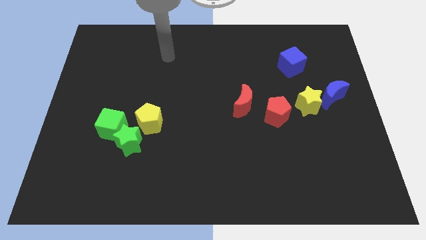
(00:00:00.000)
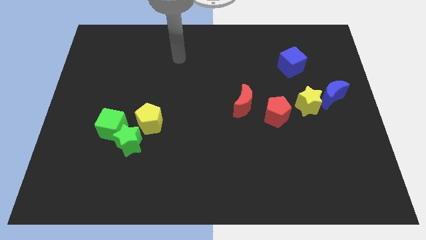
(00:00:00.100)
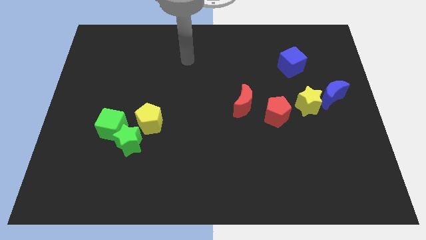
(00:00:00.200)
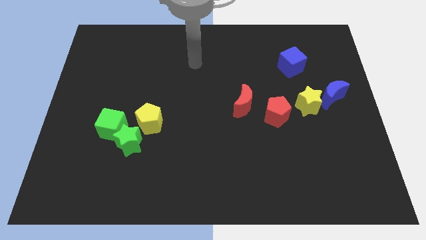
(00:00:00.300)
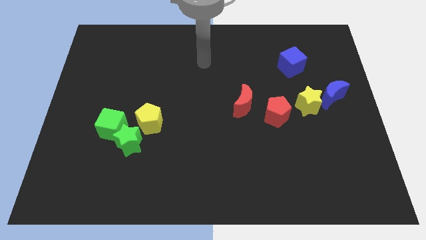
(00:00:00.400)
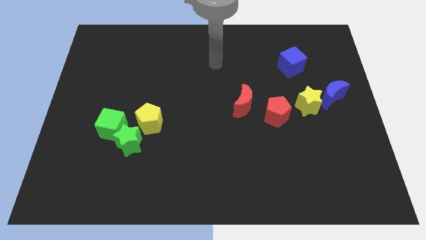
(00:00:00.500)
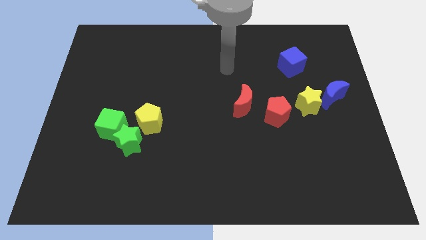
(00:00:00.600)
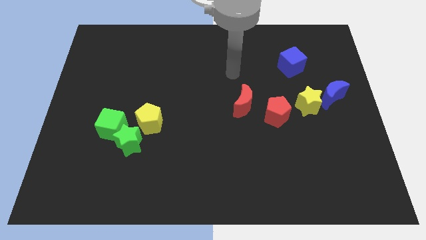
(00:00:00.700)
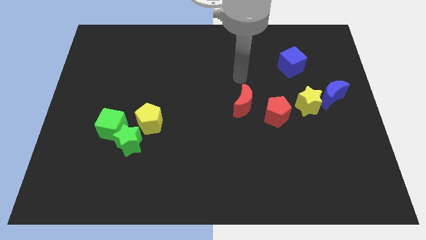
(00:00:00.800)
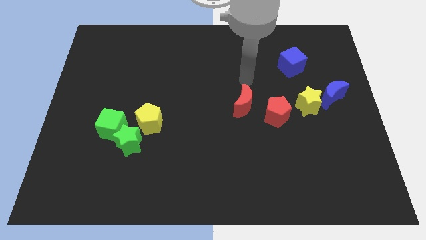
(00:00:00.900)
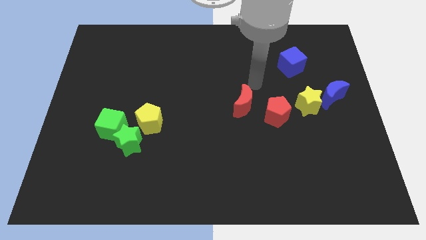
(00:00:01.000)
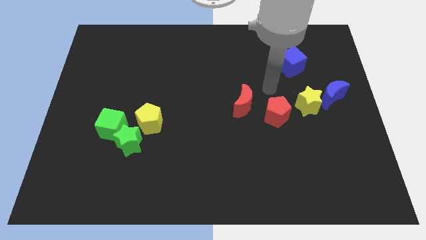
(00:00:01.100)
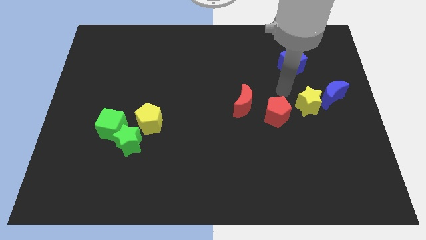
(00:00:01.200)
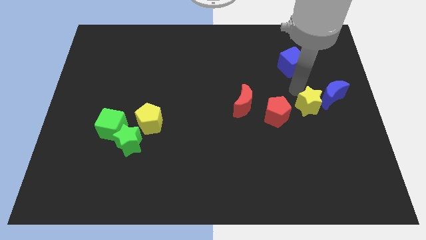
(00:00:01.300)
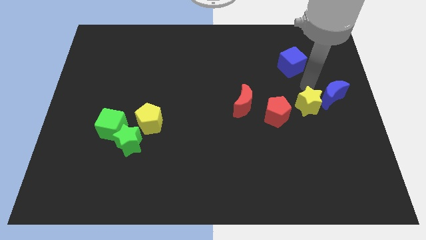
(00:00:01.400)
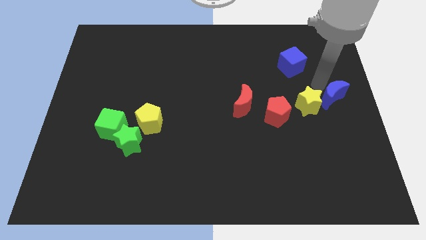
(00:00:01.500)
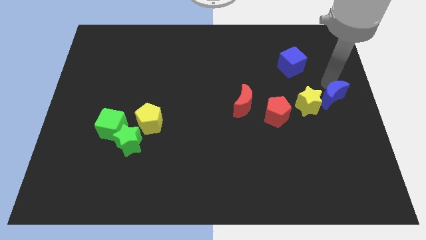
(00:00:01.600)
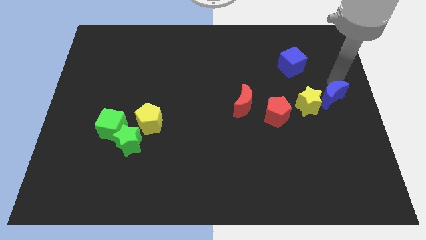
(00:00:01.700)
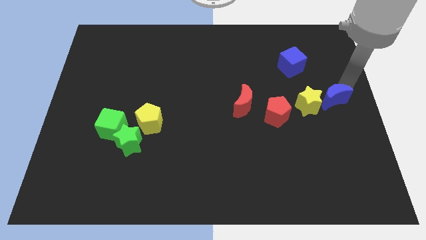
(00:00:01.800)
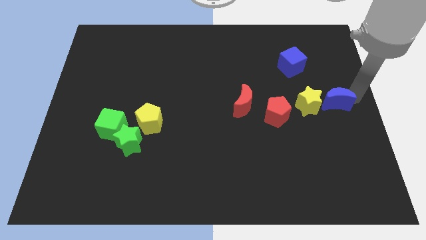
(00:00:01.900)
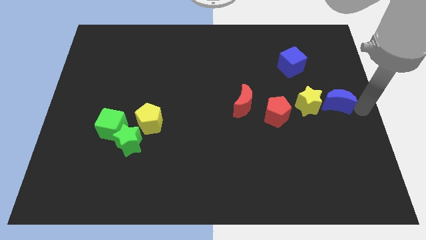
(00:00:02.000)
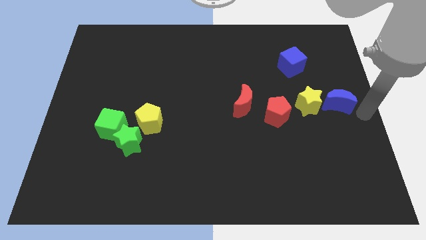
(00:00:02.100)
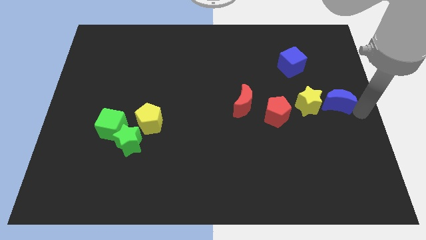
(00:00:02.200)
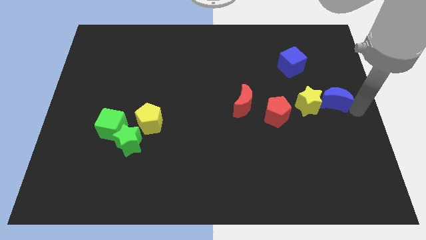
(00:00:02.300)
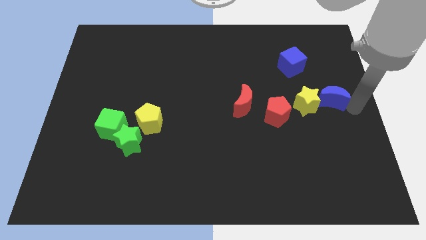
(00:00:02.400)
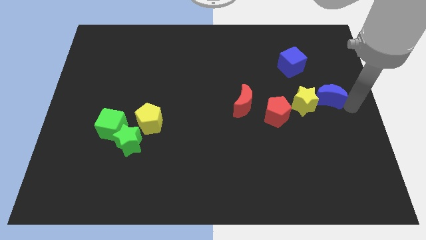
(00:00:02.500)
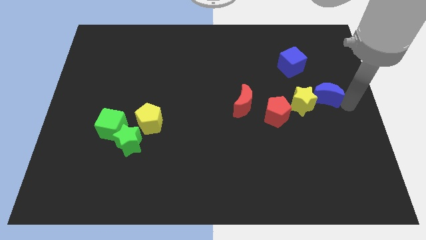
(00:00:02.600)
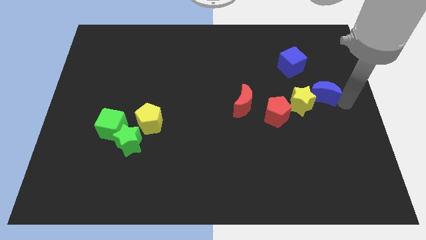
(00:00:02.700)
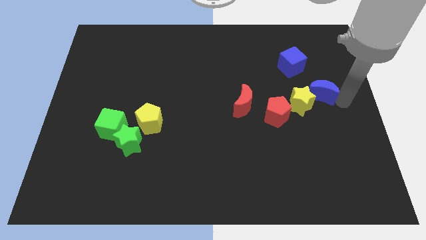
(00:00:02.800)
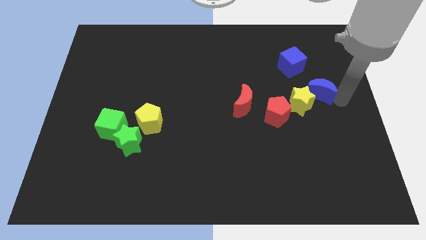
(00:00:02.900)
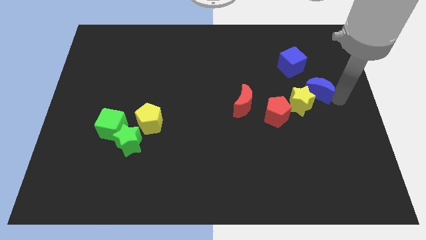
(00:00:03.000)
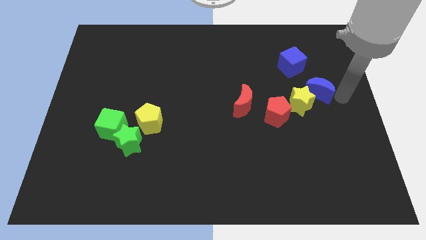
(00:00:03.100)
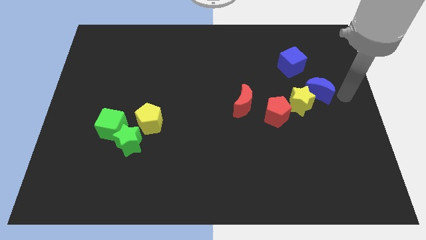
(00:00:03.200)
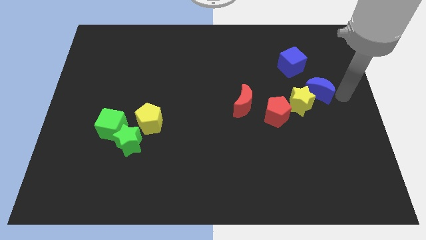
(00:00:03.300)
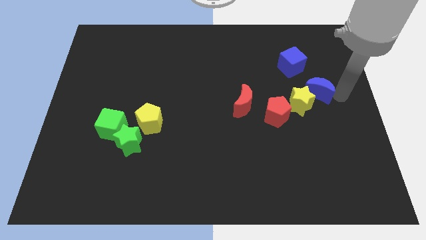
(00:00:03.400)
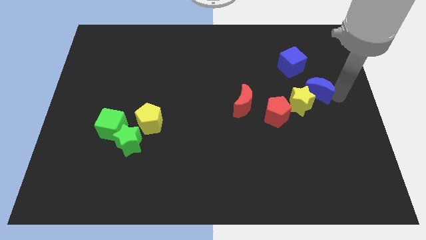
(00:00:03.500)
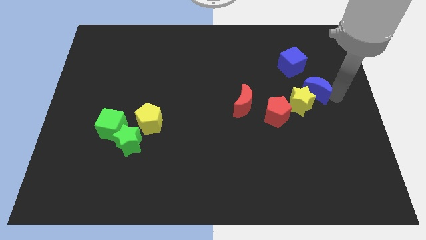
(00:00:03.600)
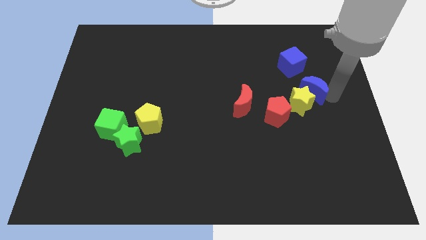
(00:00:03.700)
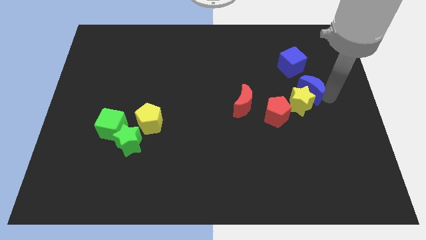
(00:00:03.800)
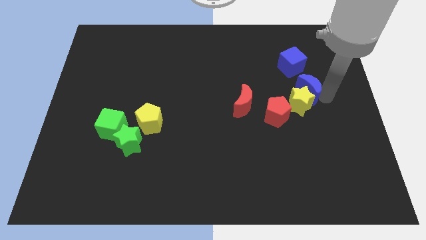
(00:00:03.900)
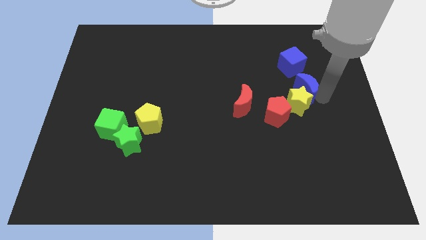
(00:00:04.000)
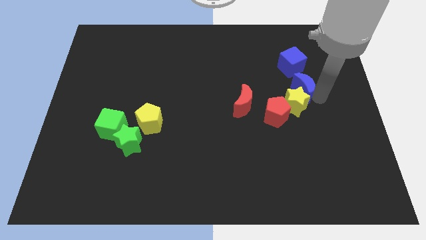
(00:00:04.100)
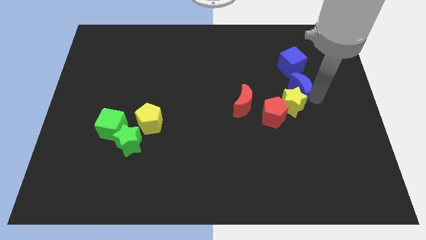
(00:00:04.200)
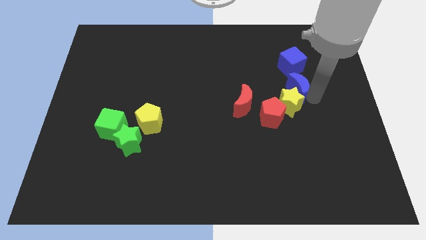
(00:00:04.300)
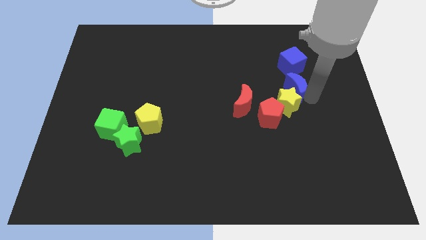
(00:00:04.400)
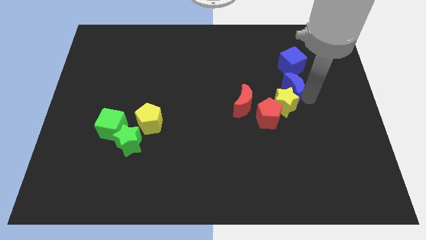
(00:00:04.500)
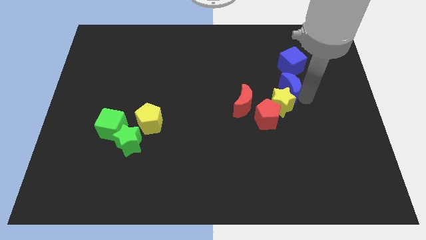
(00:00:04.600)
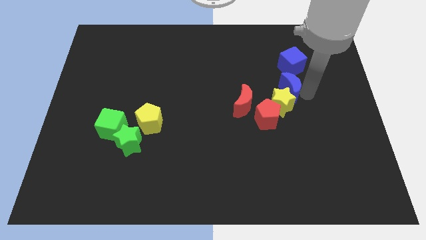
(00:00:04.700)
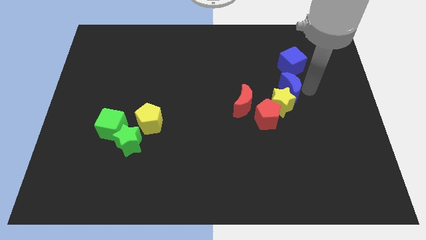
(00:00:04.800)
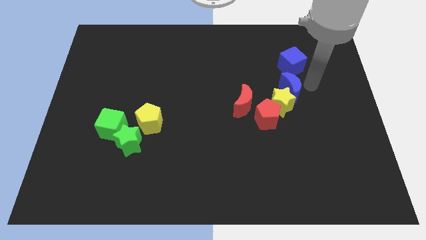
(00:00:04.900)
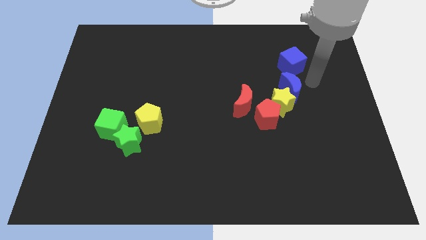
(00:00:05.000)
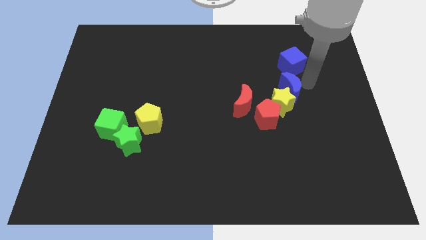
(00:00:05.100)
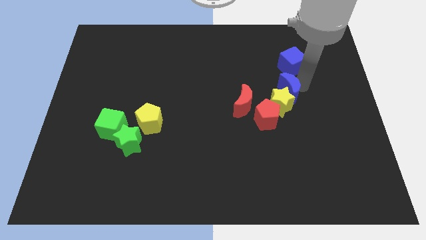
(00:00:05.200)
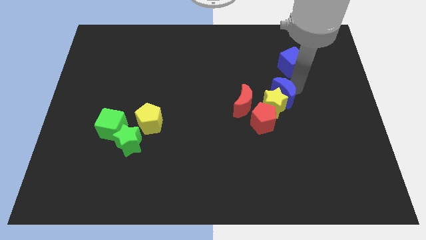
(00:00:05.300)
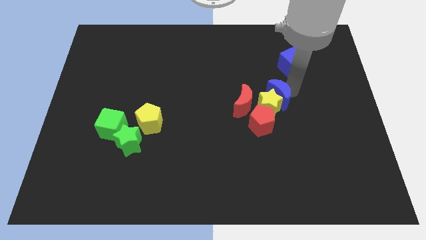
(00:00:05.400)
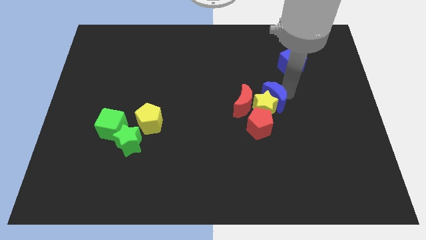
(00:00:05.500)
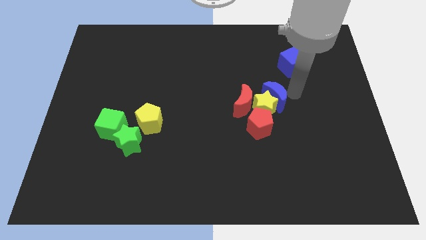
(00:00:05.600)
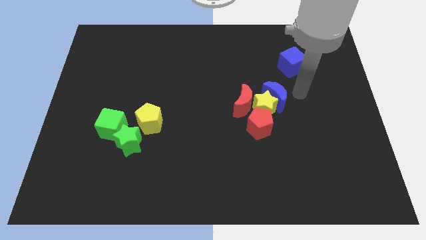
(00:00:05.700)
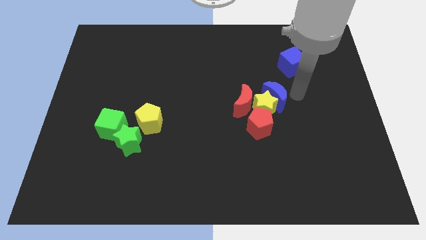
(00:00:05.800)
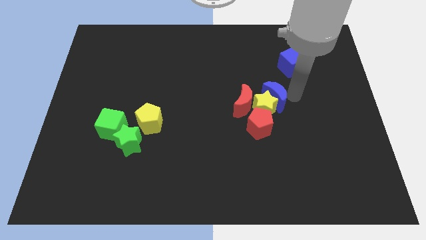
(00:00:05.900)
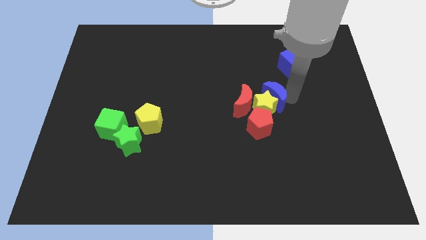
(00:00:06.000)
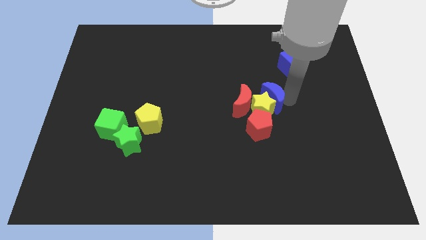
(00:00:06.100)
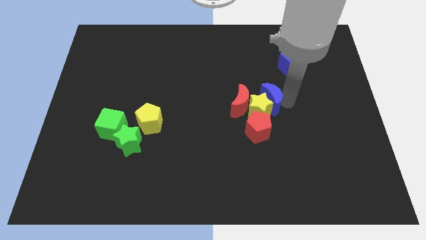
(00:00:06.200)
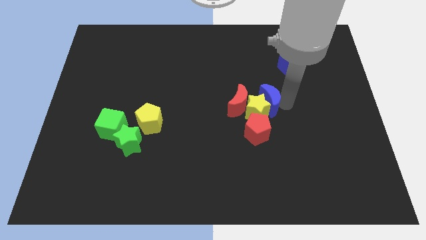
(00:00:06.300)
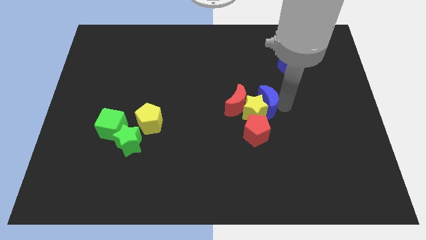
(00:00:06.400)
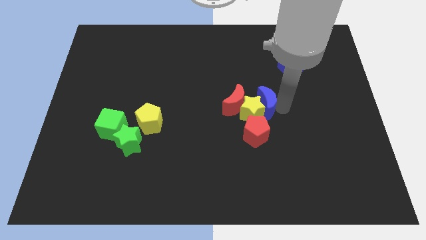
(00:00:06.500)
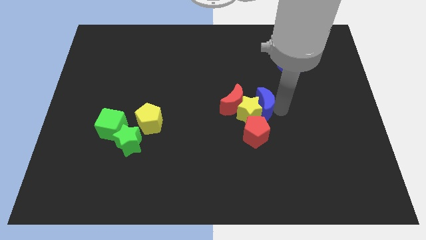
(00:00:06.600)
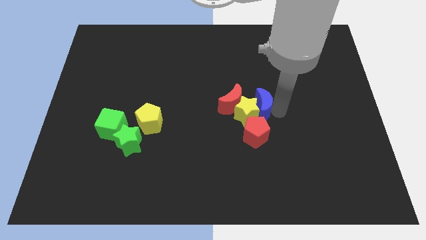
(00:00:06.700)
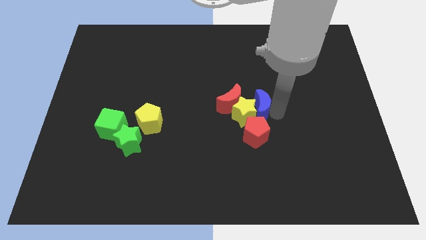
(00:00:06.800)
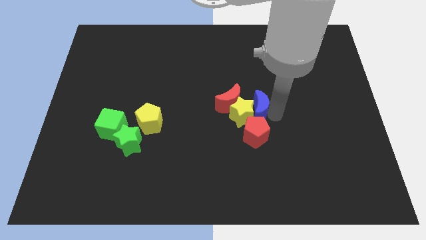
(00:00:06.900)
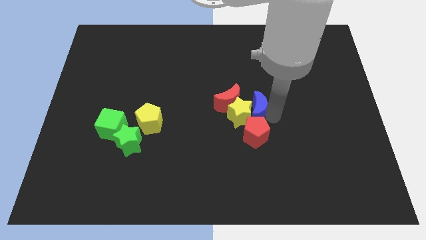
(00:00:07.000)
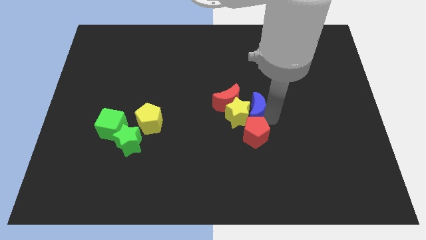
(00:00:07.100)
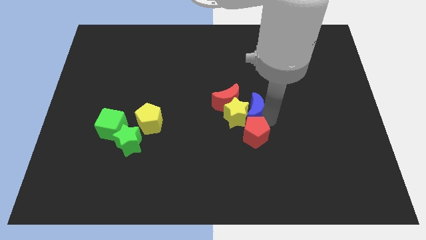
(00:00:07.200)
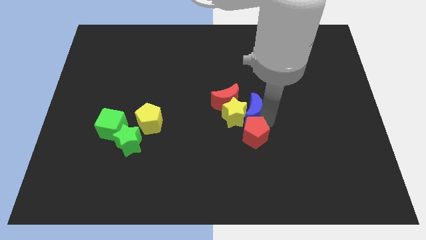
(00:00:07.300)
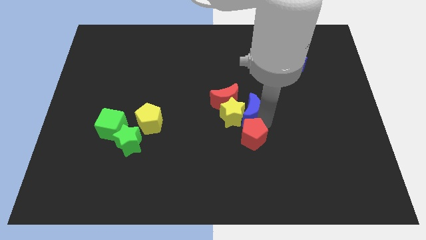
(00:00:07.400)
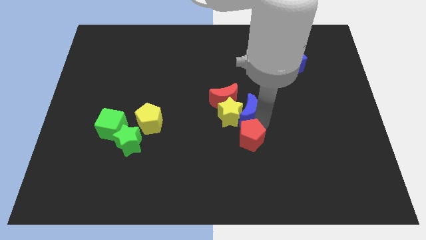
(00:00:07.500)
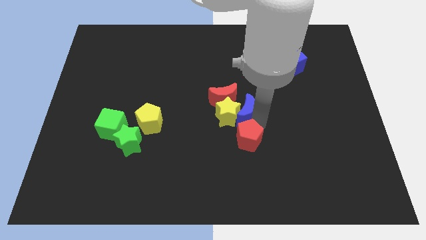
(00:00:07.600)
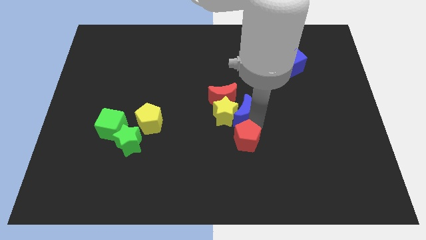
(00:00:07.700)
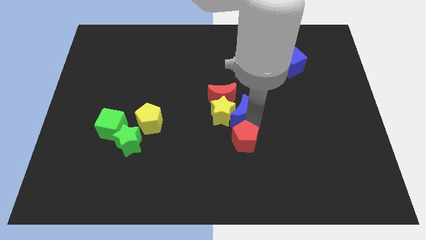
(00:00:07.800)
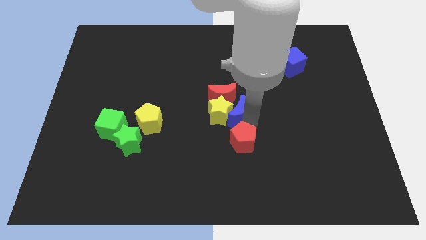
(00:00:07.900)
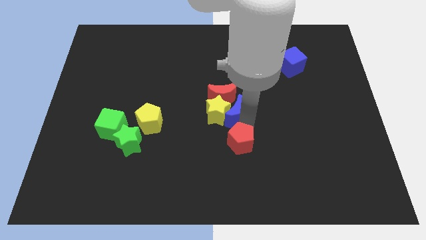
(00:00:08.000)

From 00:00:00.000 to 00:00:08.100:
move the blue moon to the red moon
